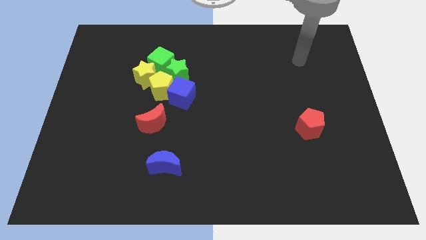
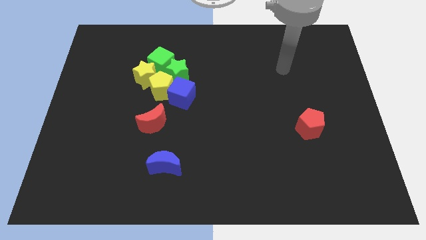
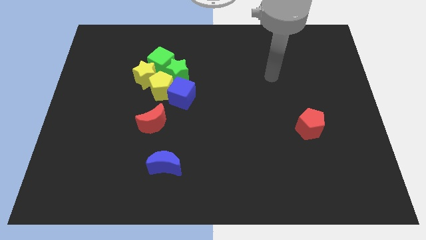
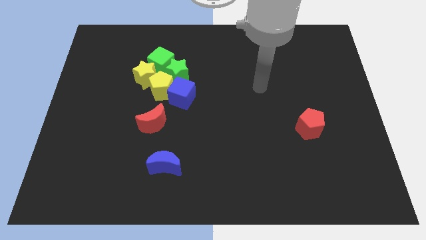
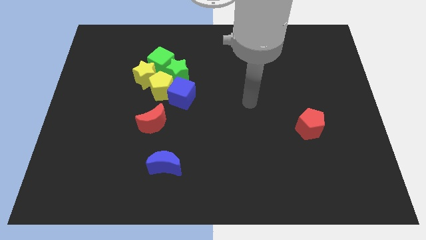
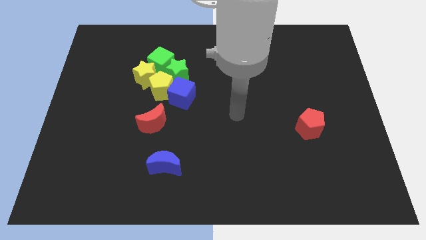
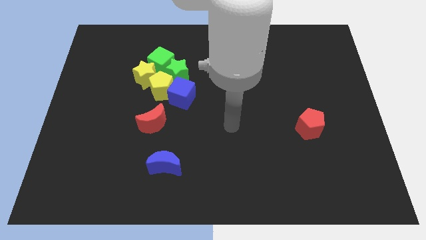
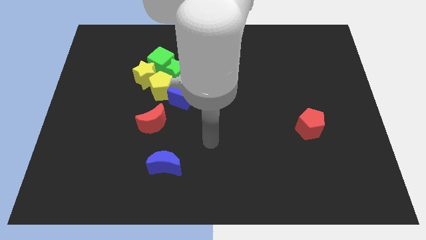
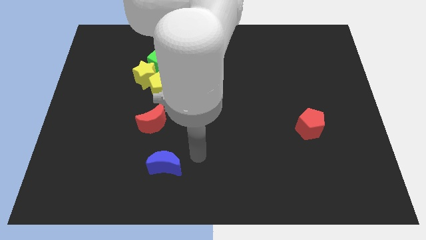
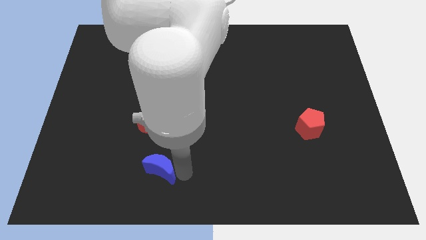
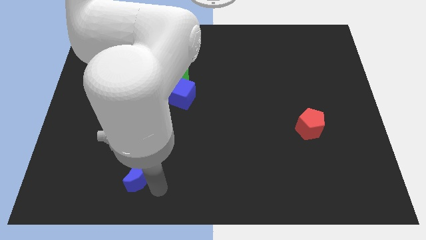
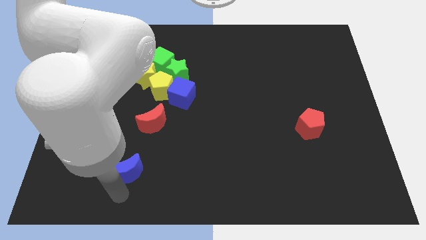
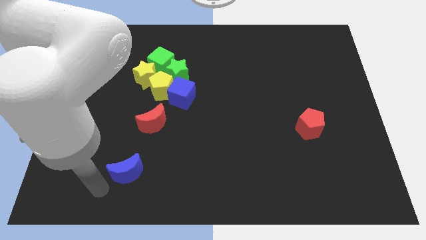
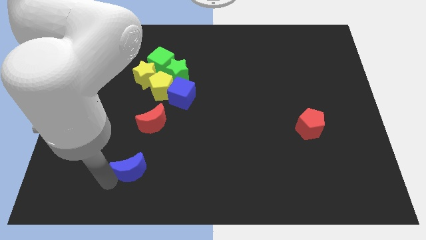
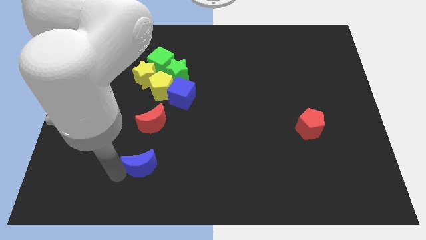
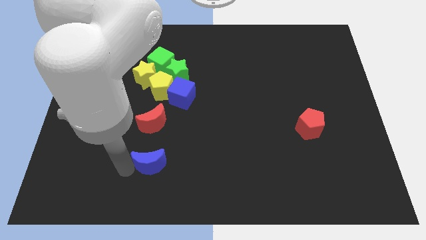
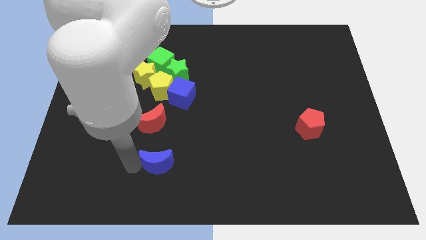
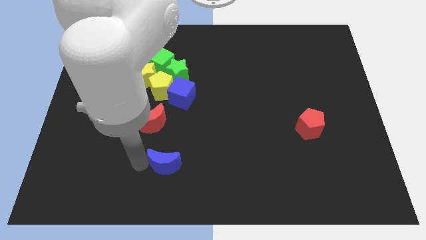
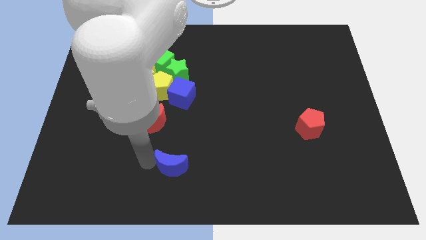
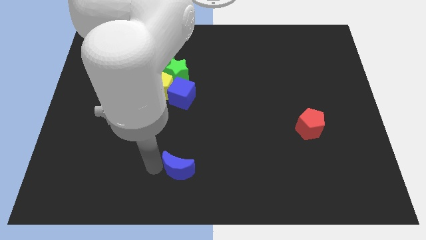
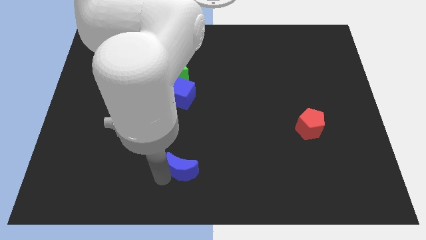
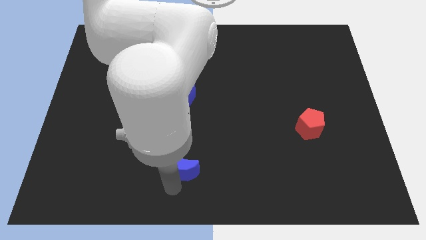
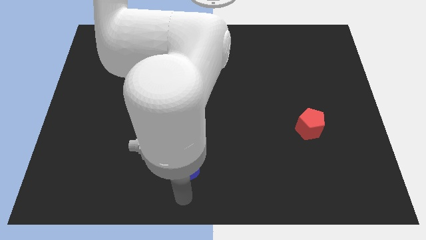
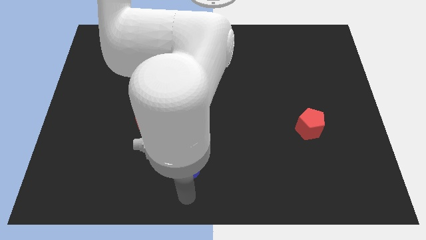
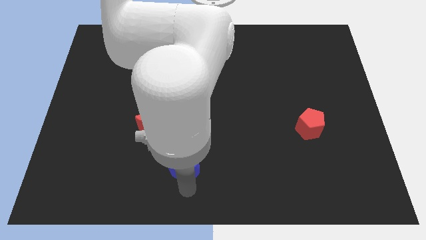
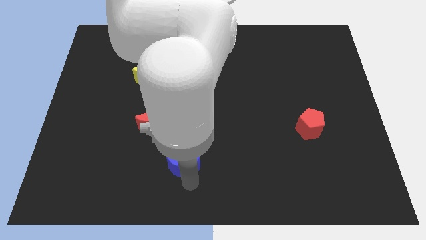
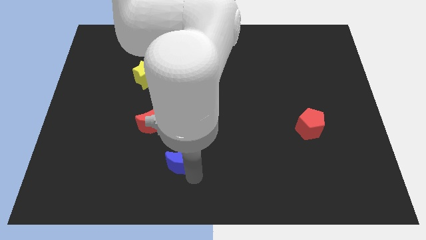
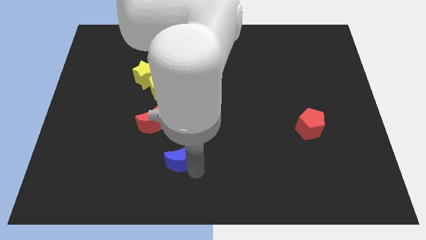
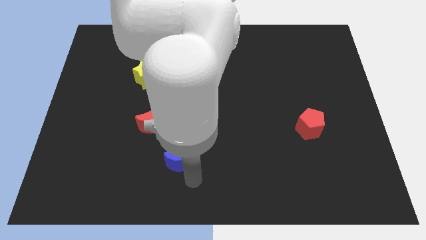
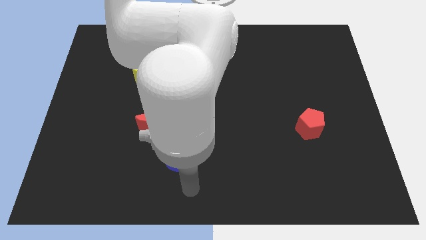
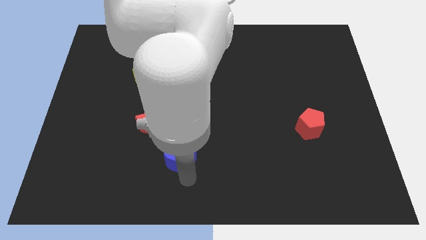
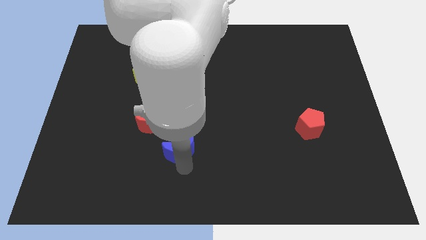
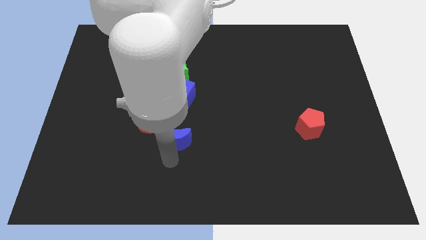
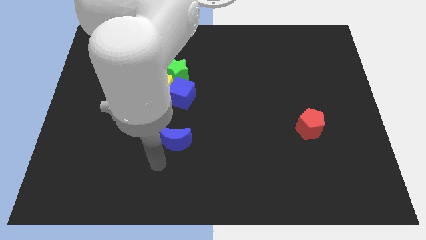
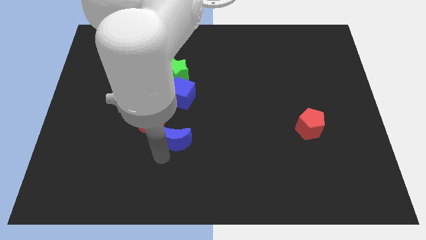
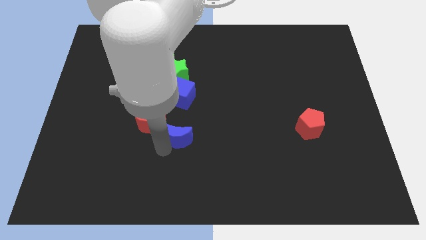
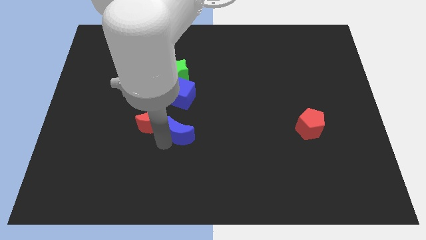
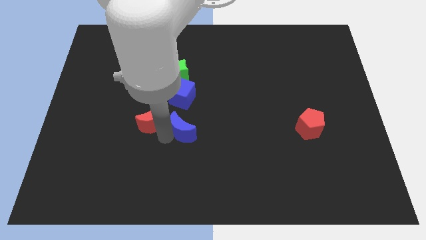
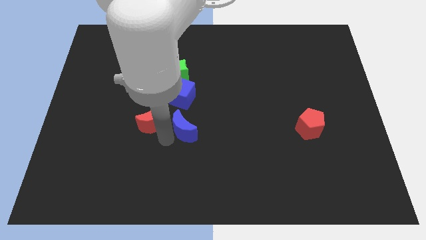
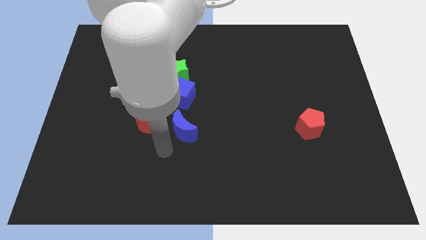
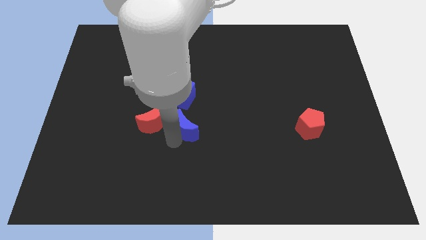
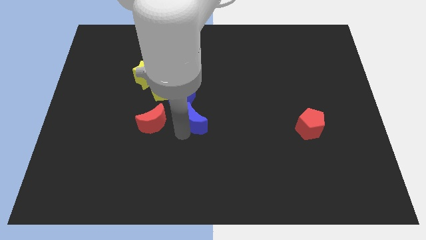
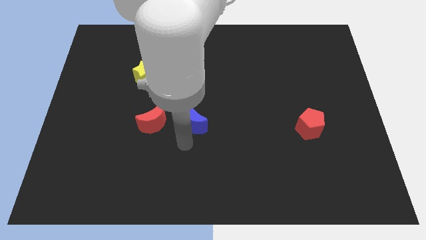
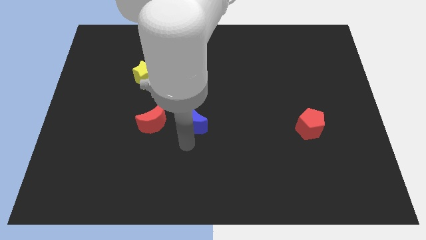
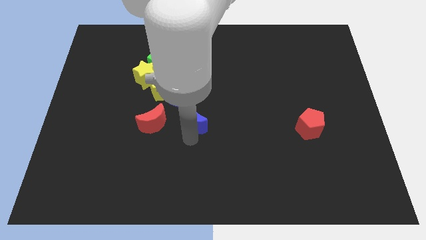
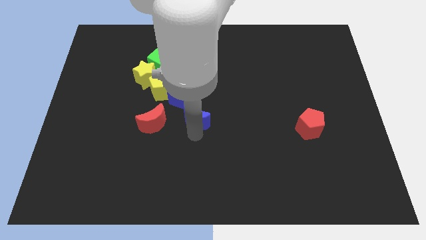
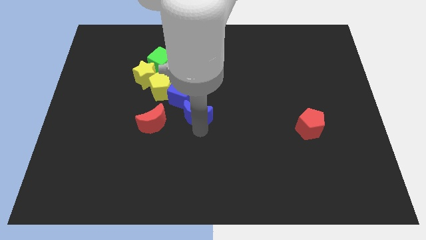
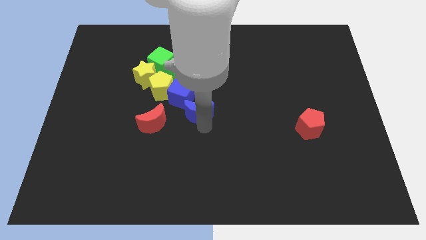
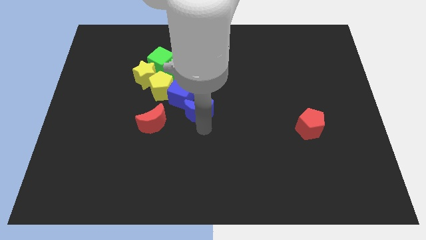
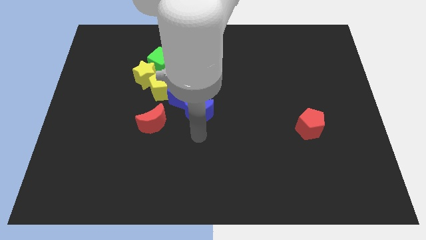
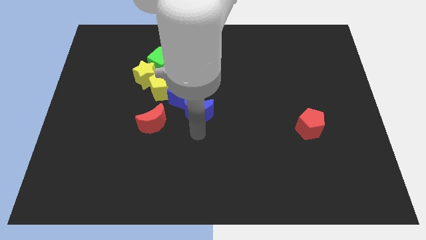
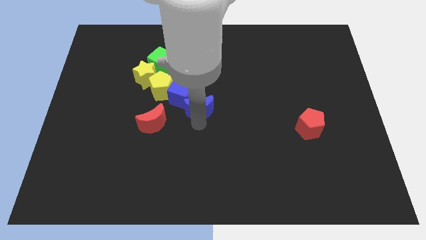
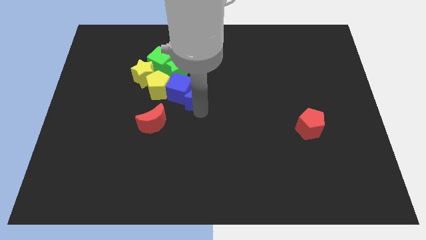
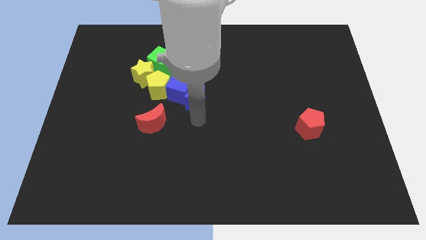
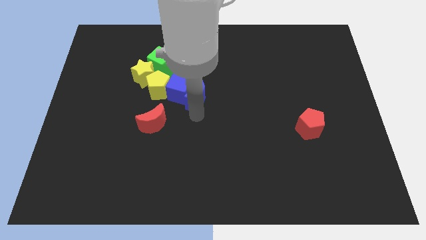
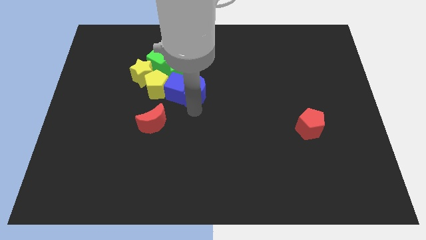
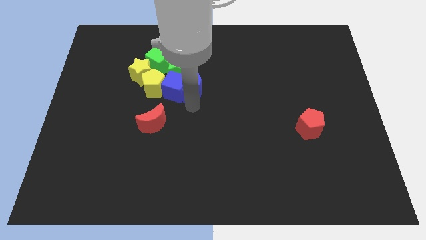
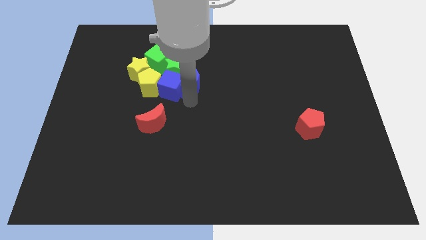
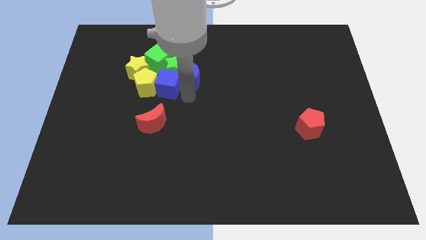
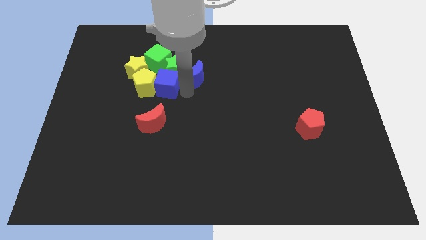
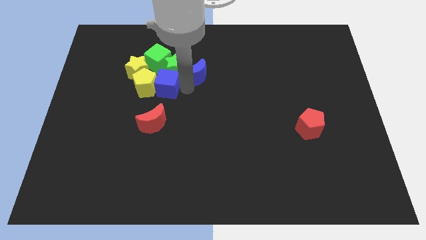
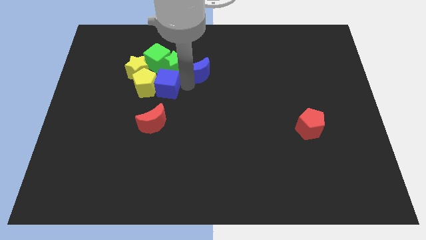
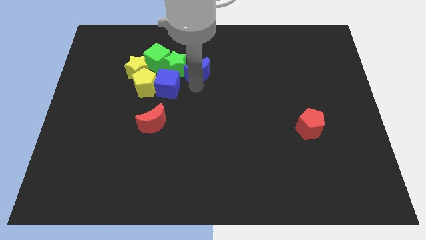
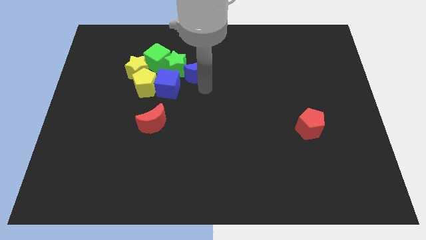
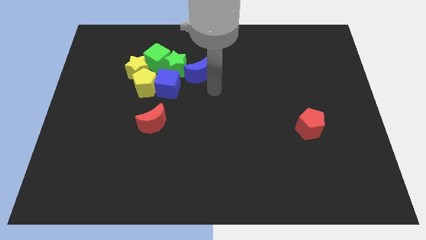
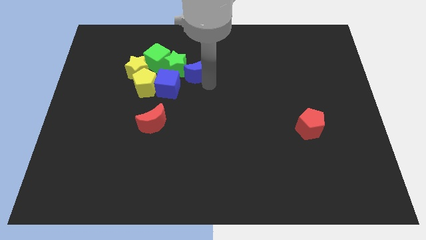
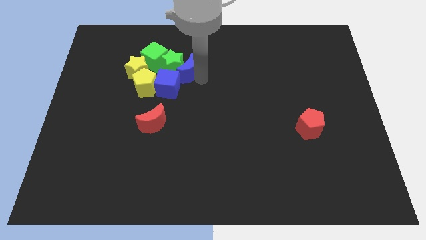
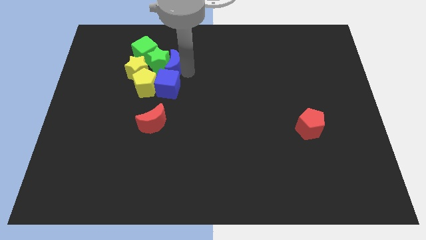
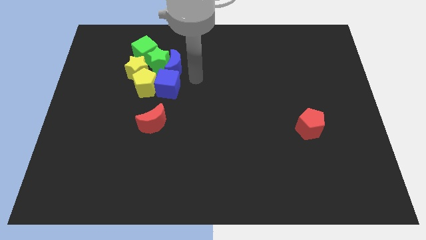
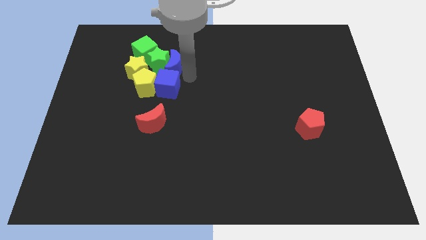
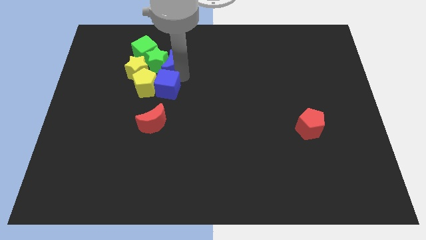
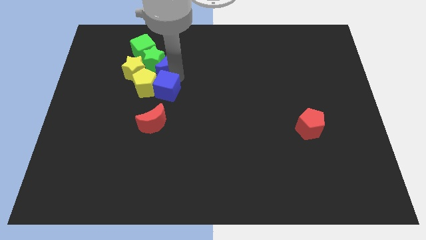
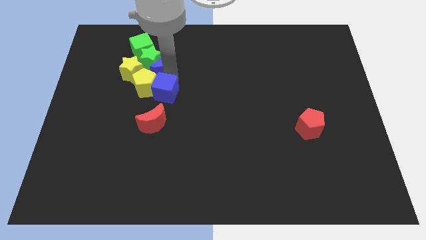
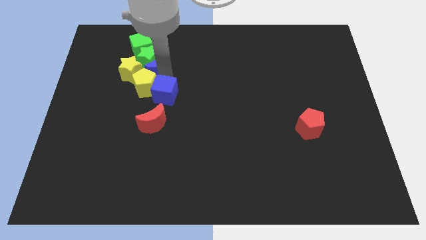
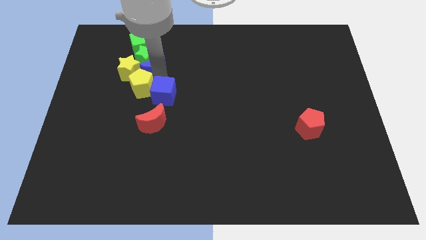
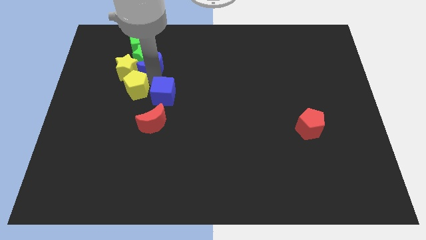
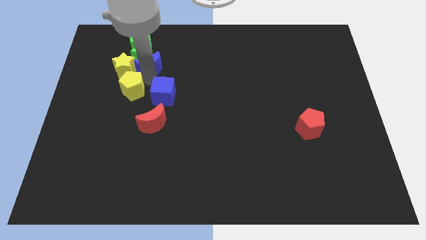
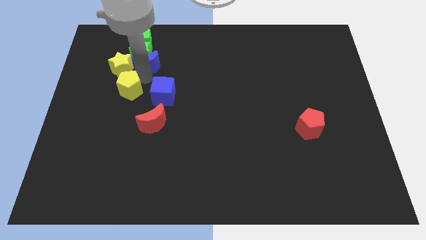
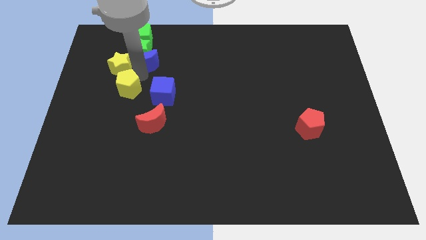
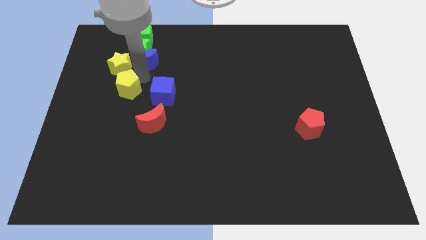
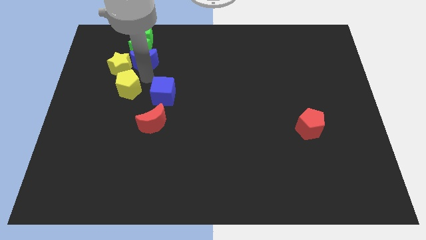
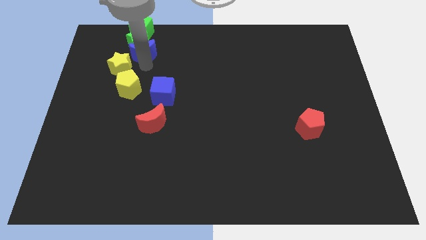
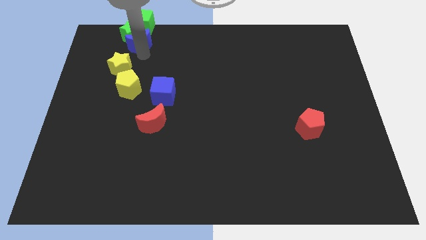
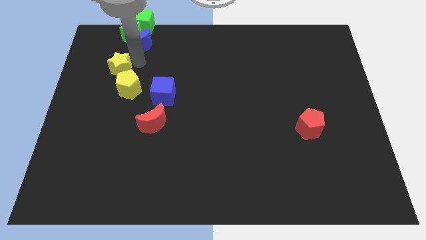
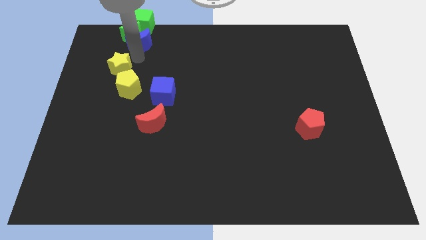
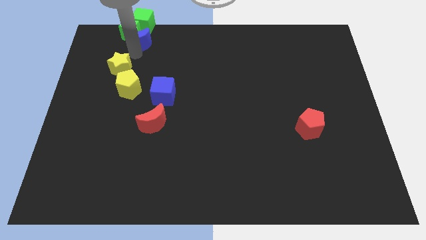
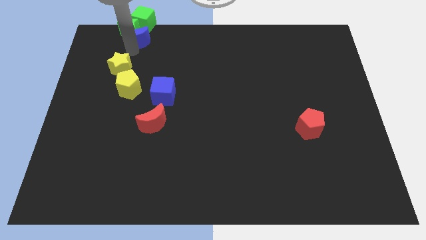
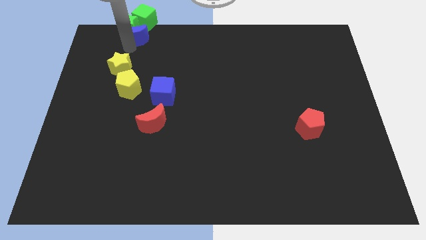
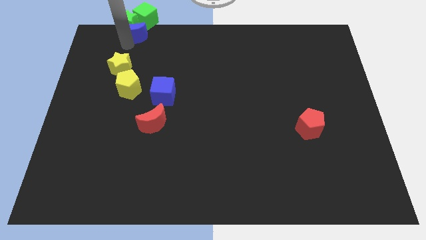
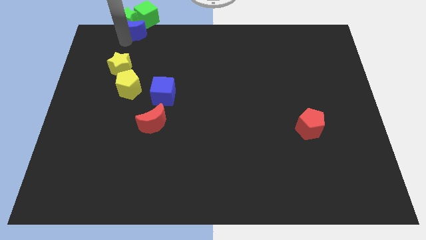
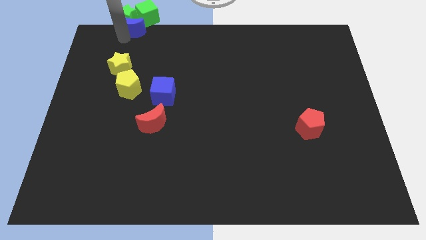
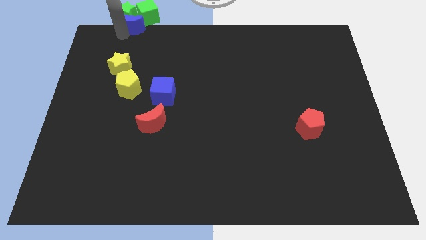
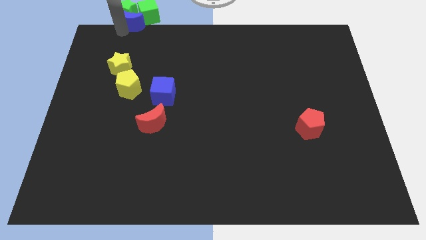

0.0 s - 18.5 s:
move the blue moon to the green cube
